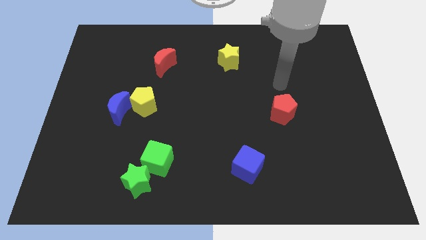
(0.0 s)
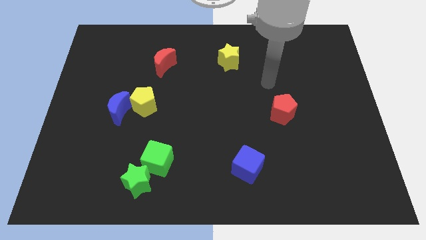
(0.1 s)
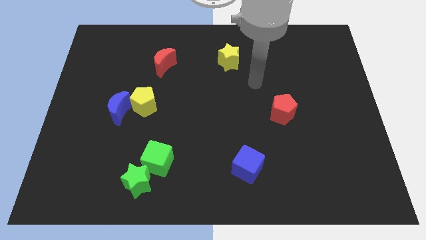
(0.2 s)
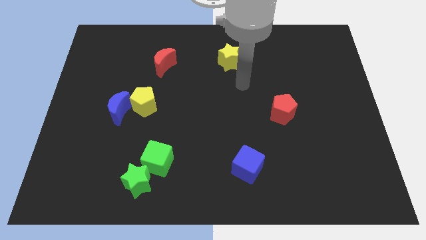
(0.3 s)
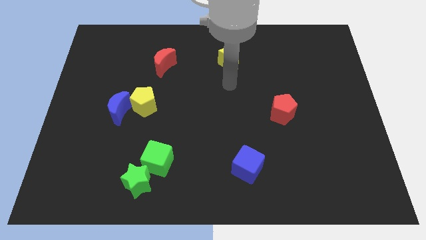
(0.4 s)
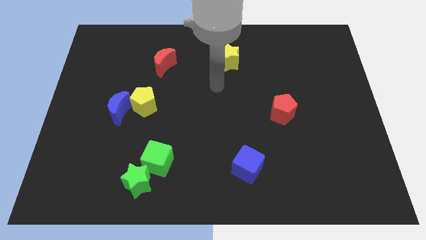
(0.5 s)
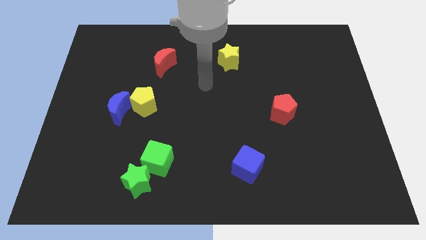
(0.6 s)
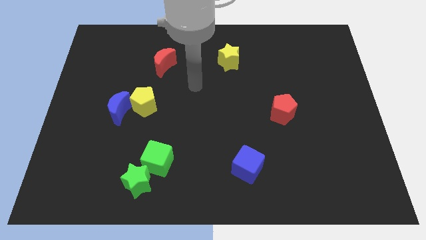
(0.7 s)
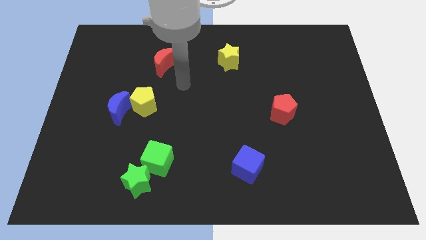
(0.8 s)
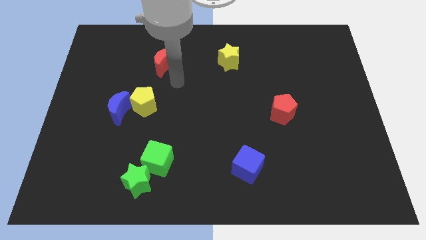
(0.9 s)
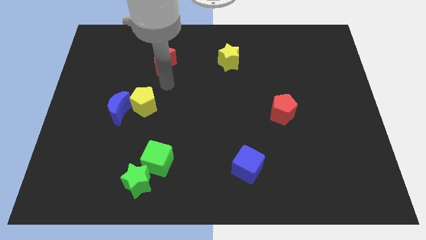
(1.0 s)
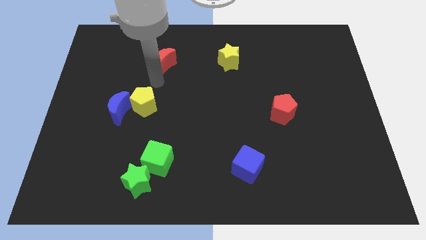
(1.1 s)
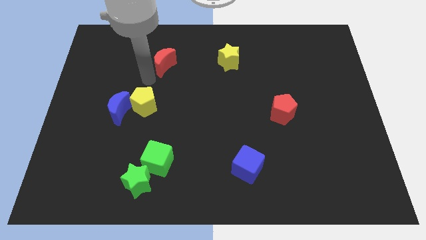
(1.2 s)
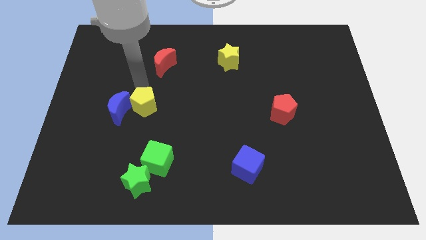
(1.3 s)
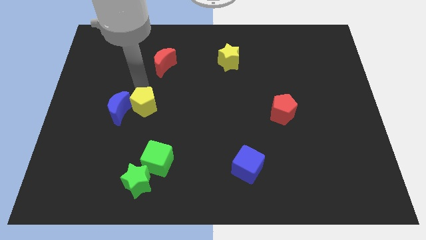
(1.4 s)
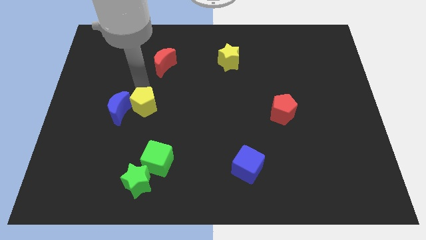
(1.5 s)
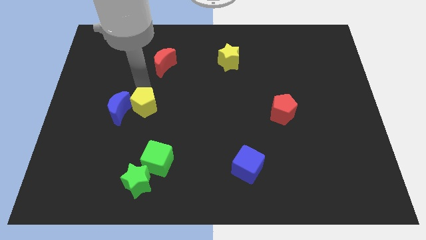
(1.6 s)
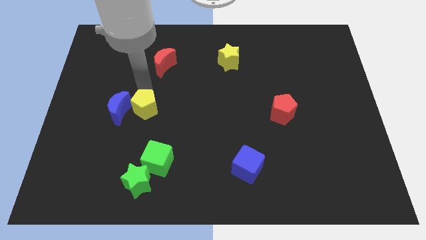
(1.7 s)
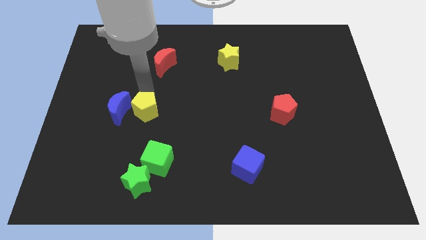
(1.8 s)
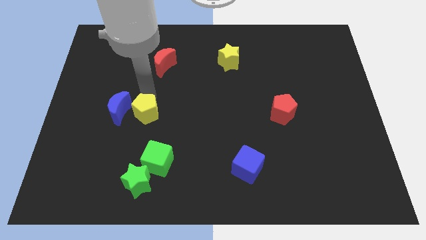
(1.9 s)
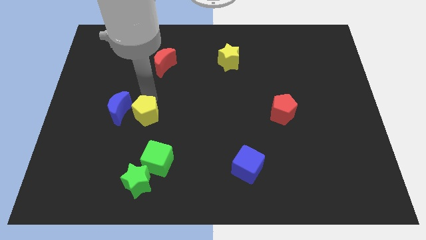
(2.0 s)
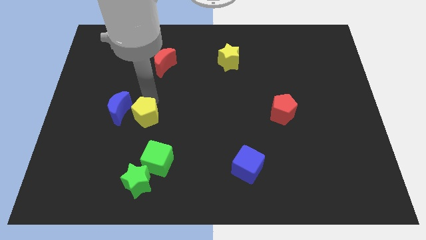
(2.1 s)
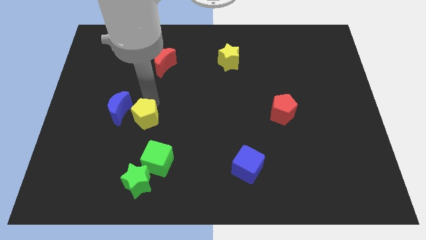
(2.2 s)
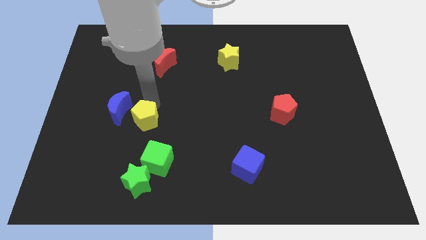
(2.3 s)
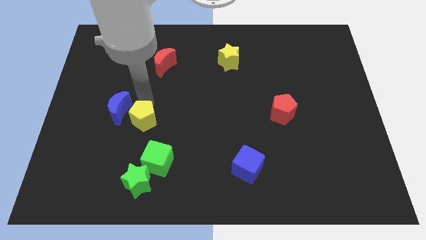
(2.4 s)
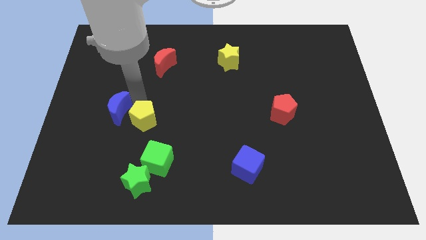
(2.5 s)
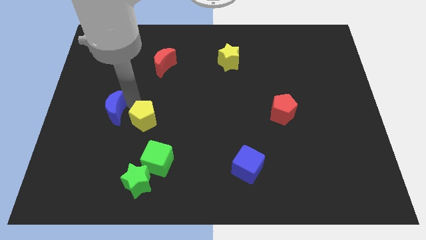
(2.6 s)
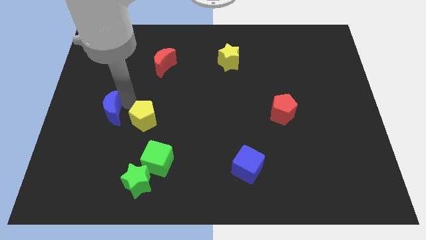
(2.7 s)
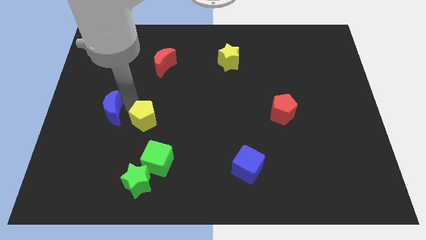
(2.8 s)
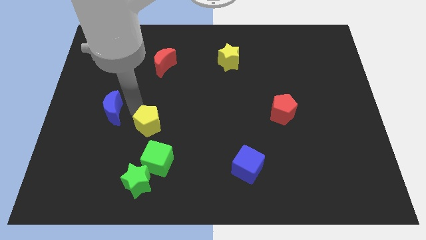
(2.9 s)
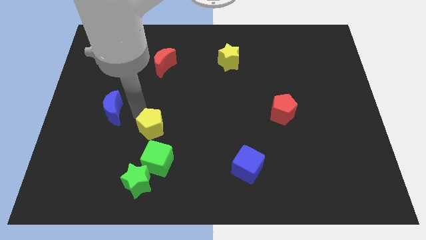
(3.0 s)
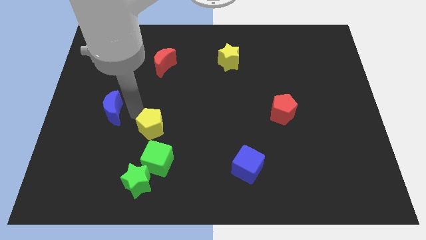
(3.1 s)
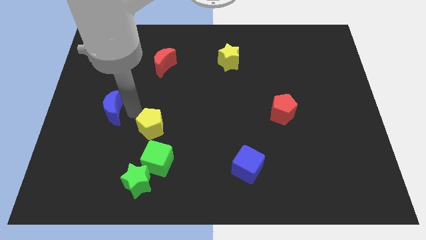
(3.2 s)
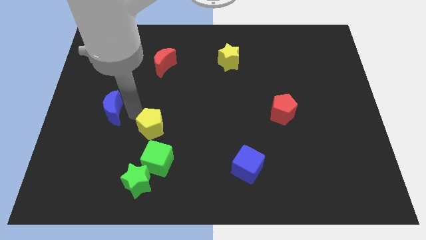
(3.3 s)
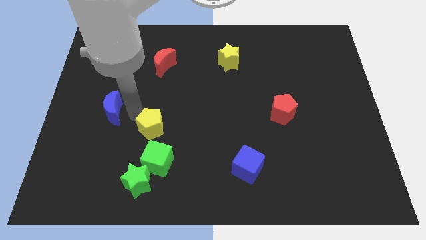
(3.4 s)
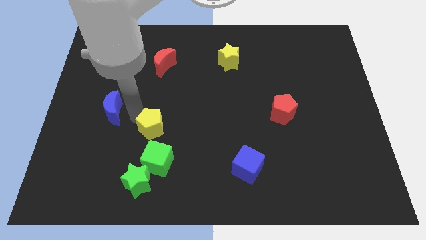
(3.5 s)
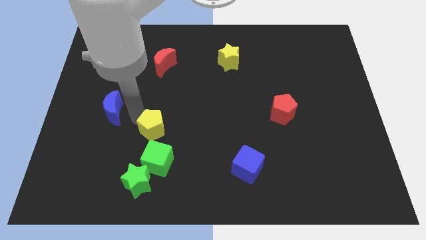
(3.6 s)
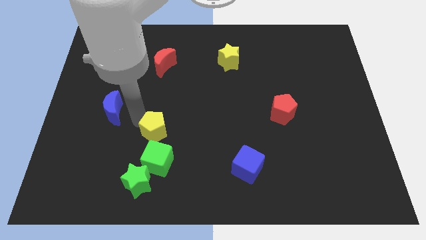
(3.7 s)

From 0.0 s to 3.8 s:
slightly move the yellow pentagon diagonally downwards and to the right

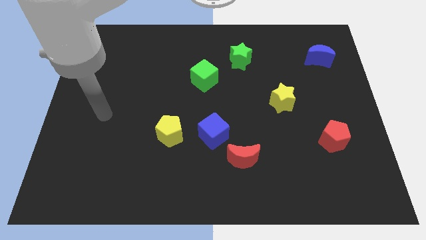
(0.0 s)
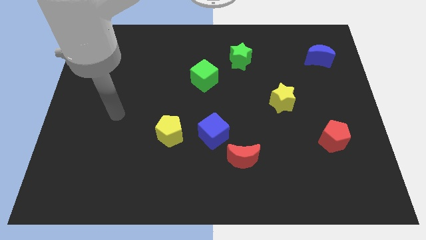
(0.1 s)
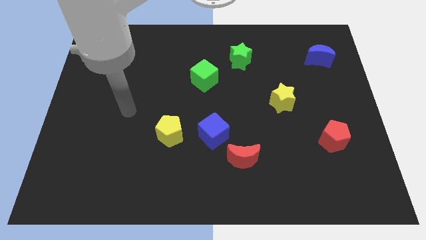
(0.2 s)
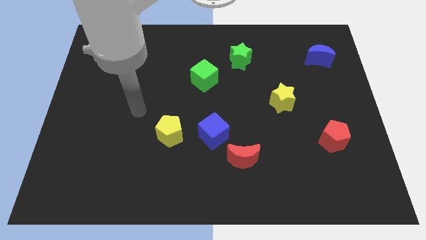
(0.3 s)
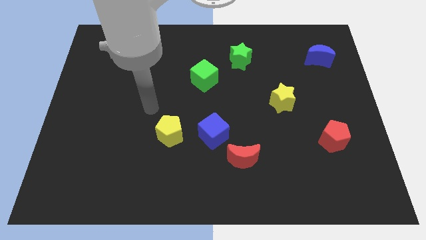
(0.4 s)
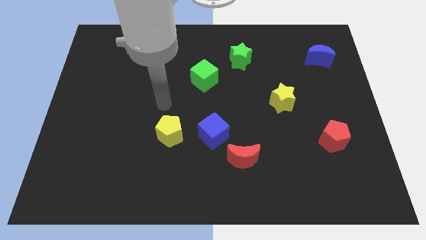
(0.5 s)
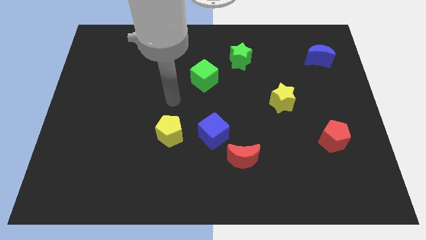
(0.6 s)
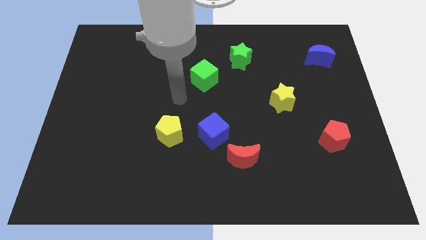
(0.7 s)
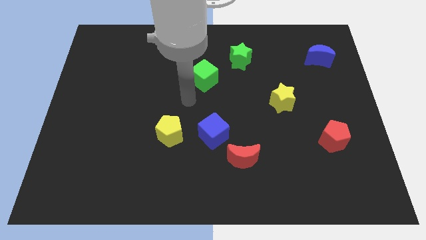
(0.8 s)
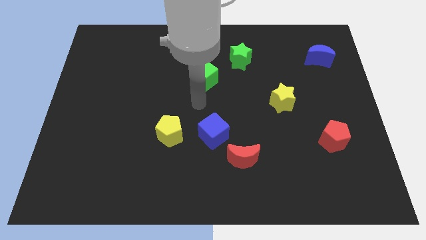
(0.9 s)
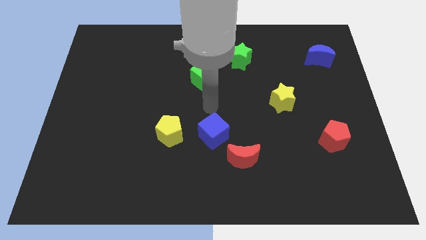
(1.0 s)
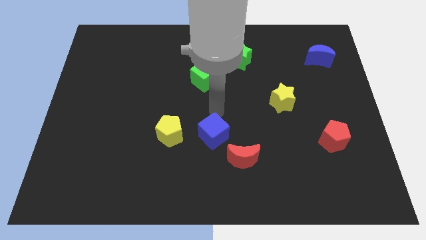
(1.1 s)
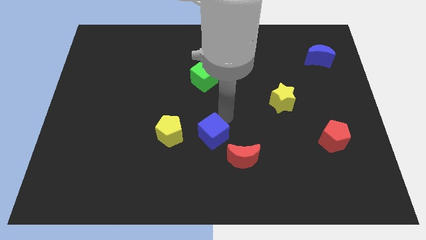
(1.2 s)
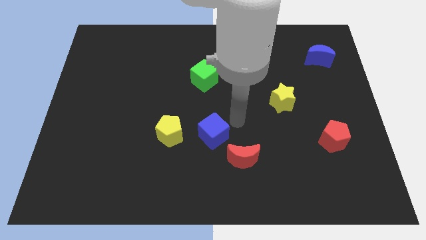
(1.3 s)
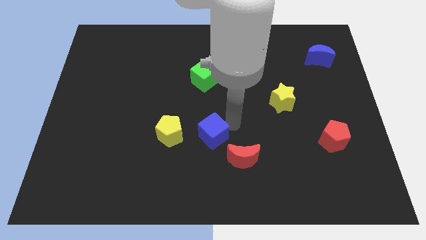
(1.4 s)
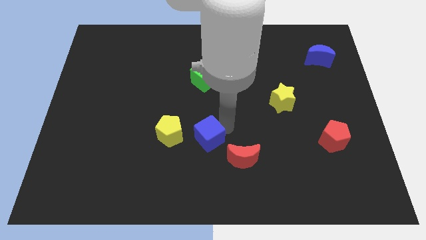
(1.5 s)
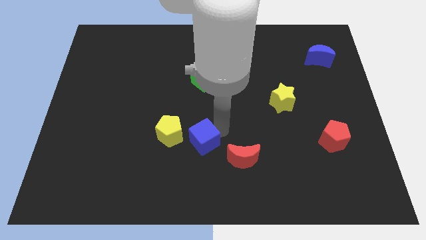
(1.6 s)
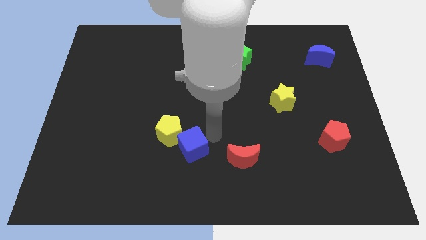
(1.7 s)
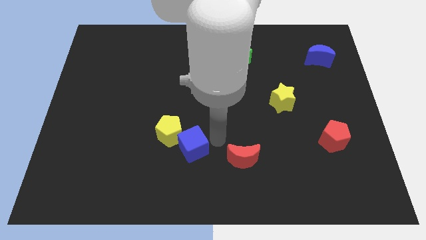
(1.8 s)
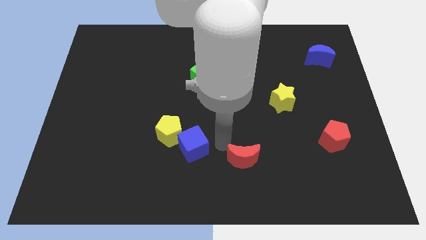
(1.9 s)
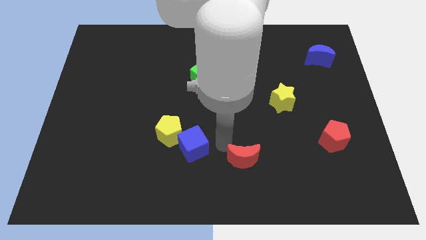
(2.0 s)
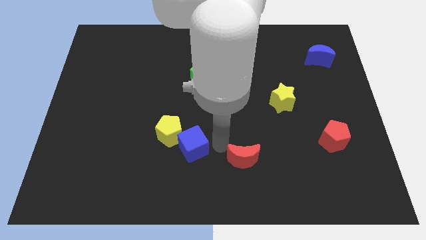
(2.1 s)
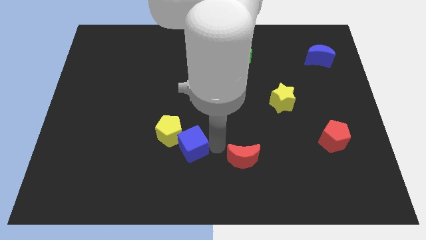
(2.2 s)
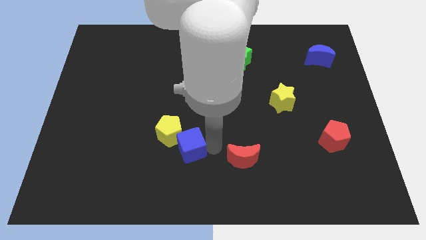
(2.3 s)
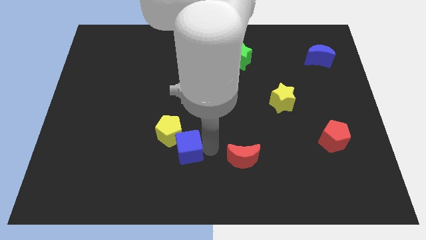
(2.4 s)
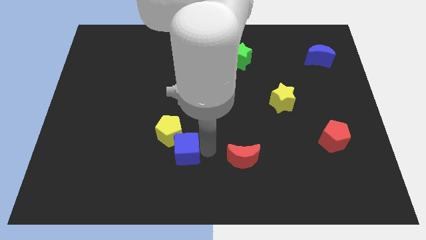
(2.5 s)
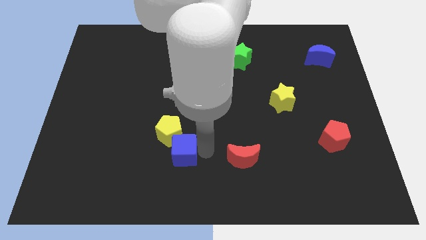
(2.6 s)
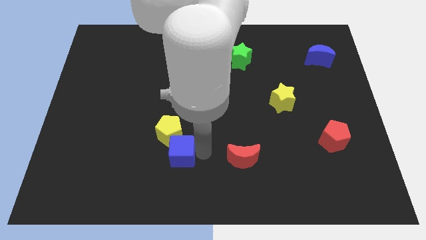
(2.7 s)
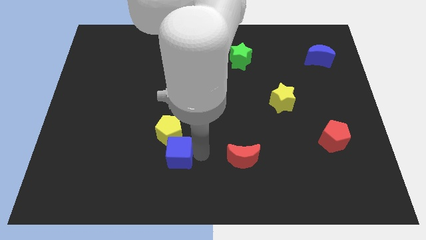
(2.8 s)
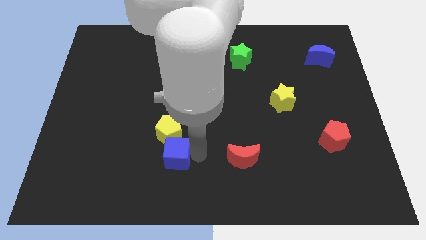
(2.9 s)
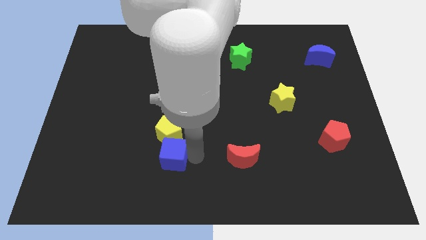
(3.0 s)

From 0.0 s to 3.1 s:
slide the blue cube left a little bit

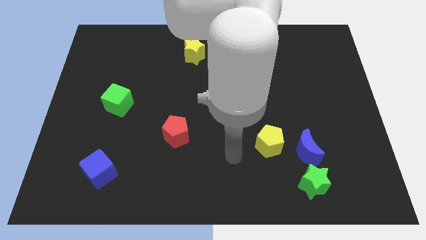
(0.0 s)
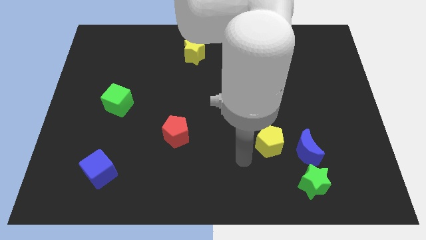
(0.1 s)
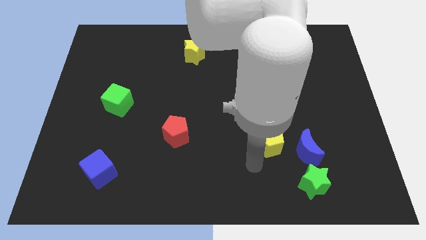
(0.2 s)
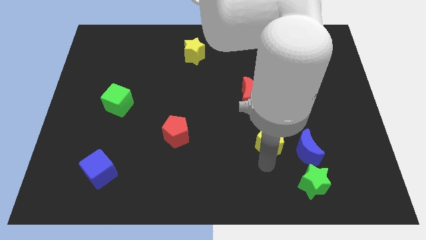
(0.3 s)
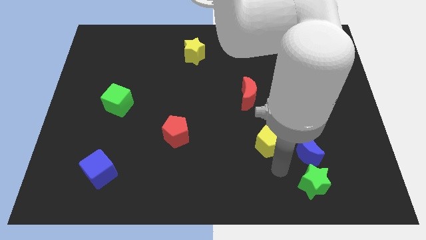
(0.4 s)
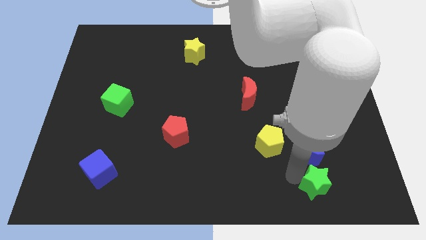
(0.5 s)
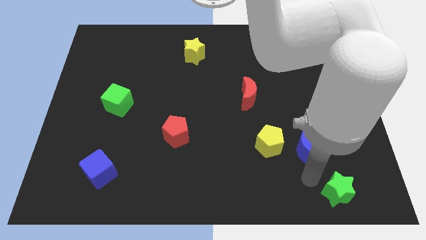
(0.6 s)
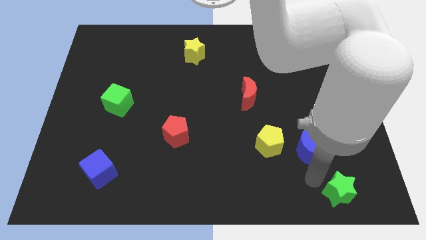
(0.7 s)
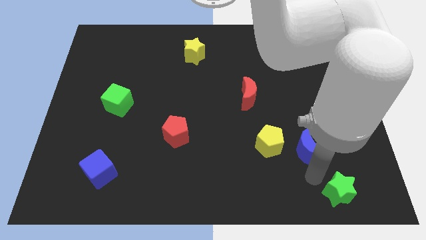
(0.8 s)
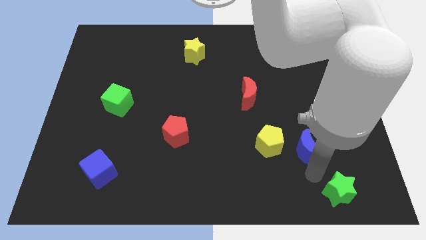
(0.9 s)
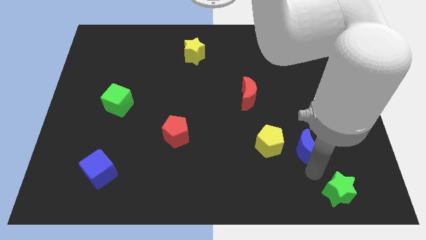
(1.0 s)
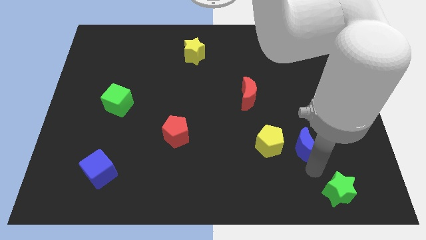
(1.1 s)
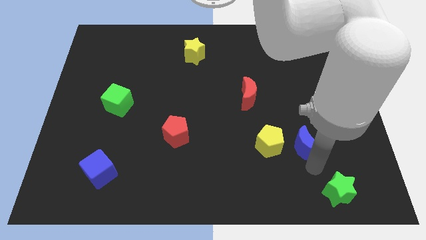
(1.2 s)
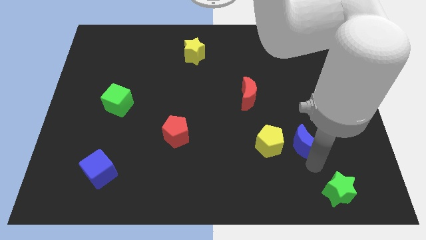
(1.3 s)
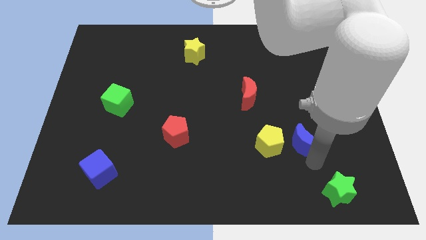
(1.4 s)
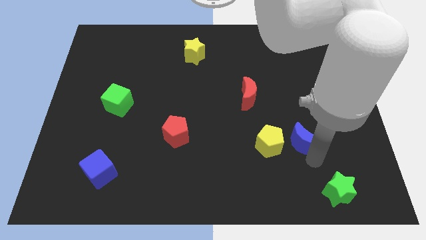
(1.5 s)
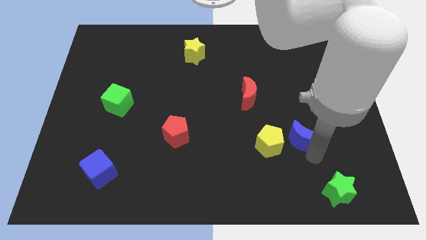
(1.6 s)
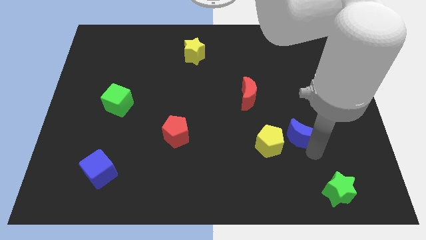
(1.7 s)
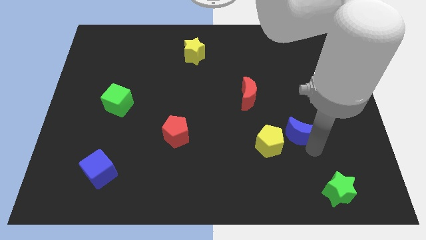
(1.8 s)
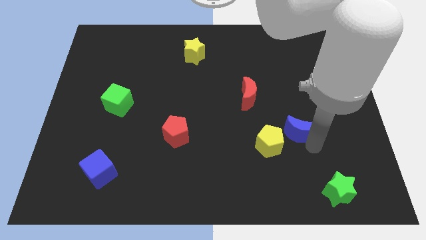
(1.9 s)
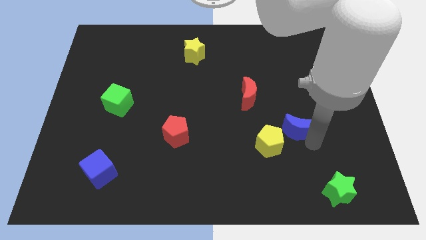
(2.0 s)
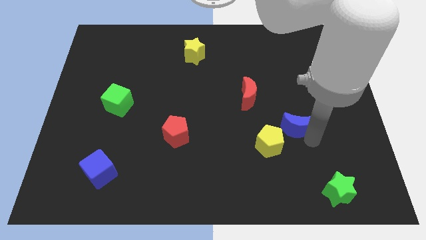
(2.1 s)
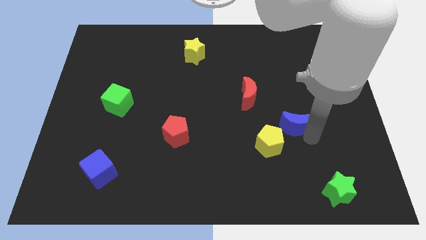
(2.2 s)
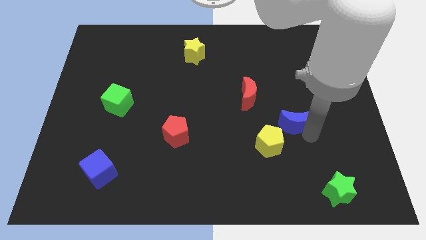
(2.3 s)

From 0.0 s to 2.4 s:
slightly move the blue moon upwards
